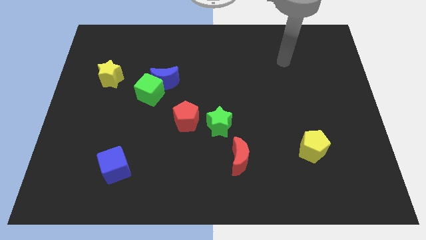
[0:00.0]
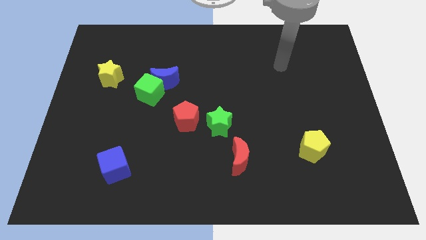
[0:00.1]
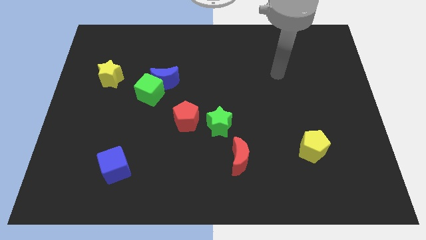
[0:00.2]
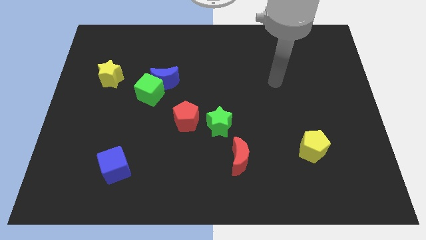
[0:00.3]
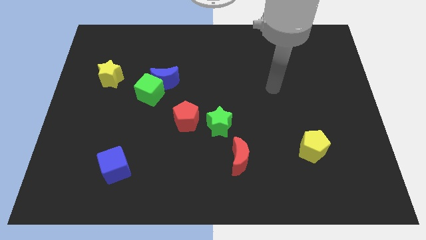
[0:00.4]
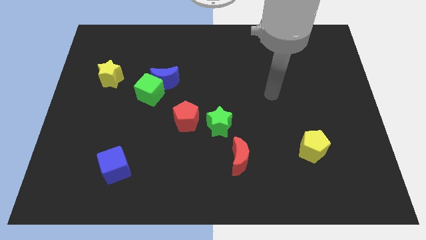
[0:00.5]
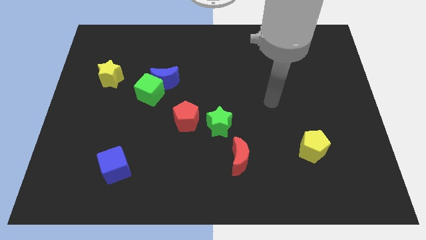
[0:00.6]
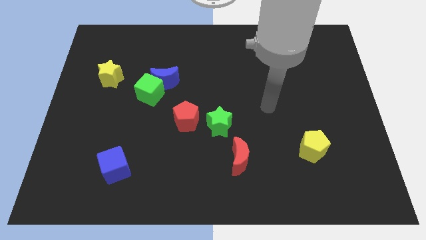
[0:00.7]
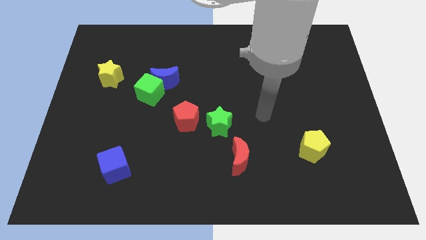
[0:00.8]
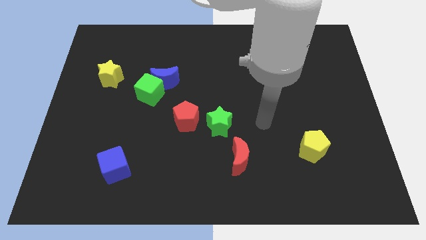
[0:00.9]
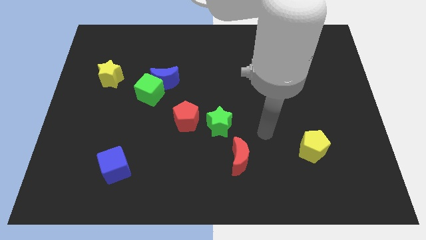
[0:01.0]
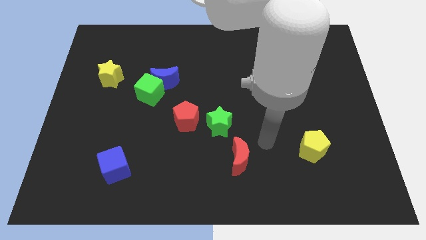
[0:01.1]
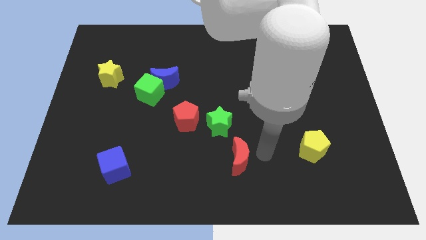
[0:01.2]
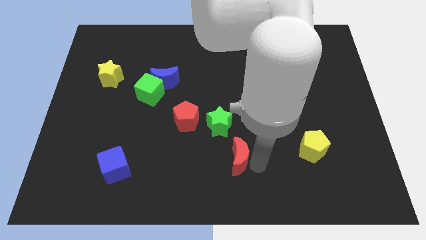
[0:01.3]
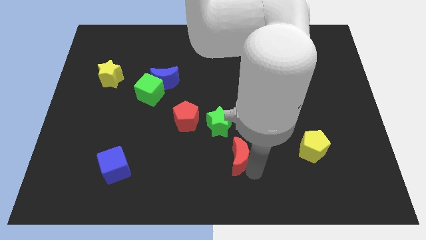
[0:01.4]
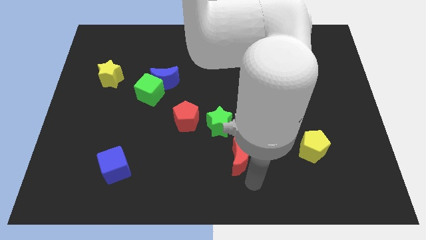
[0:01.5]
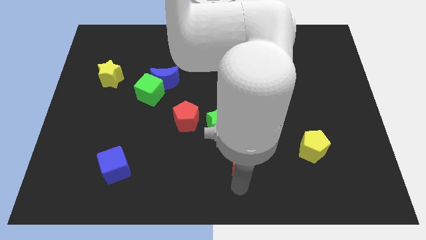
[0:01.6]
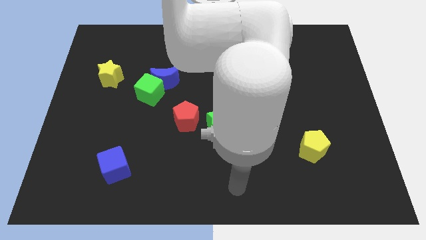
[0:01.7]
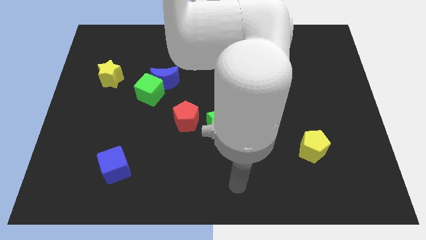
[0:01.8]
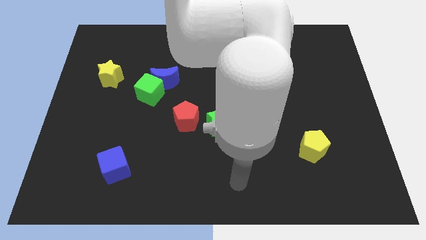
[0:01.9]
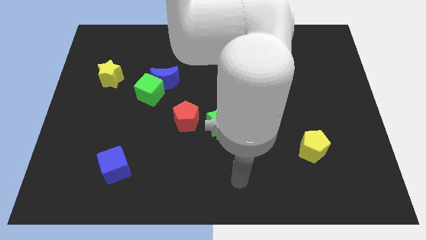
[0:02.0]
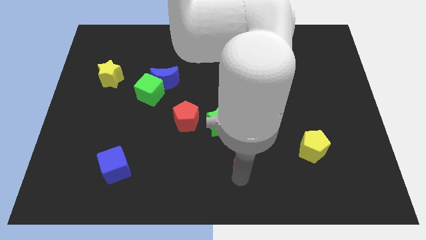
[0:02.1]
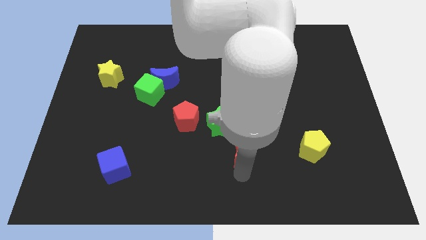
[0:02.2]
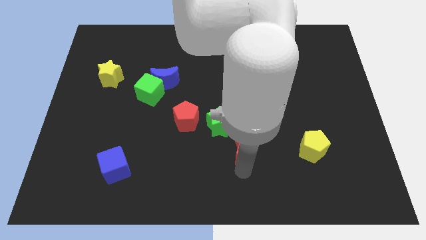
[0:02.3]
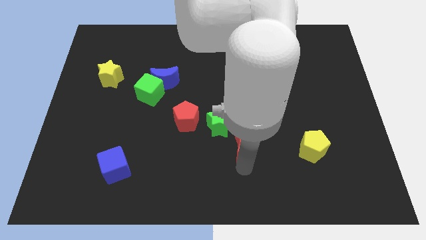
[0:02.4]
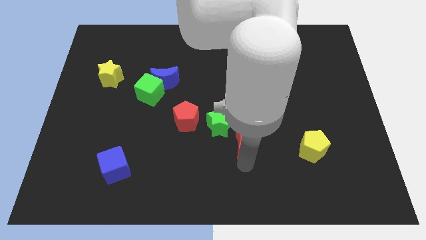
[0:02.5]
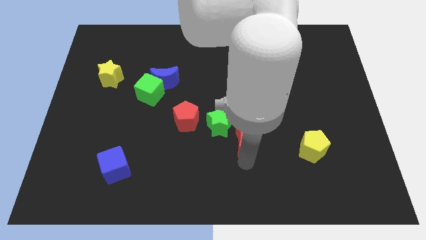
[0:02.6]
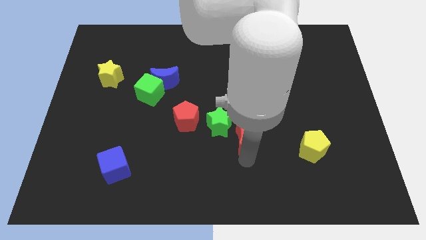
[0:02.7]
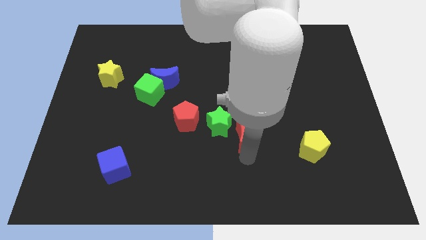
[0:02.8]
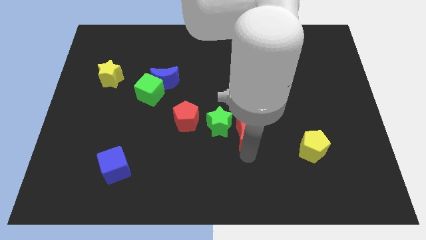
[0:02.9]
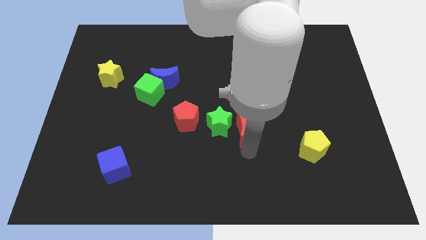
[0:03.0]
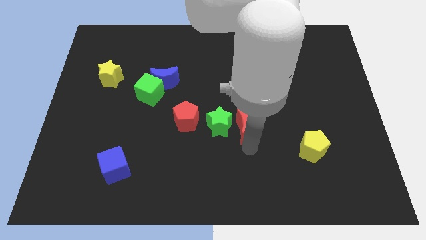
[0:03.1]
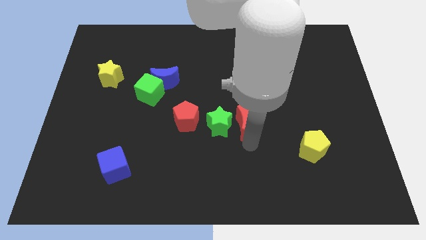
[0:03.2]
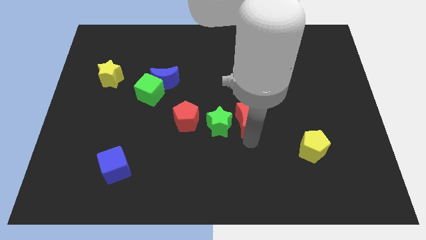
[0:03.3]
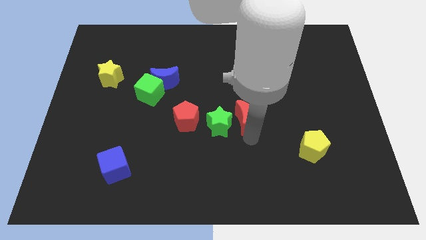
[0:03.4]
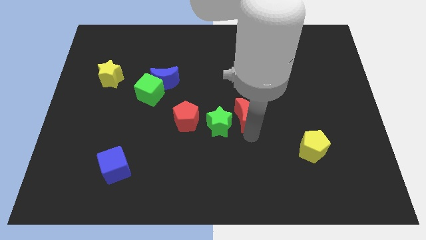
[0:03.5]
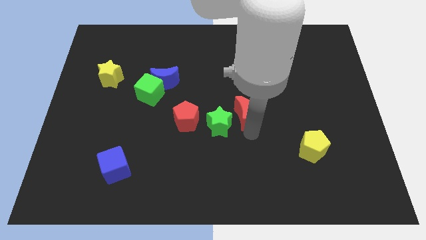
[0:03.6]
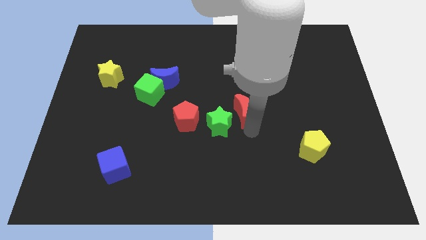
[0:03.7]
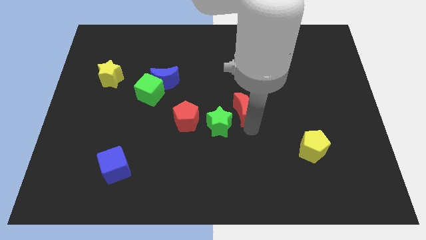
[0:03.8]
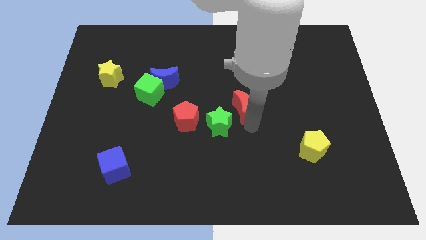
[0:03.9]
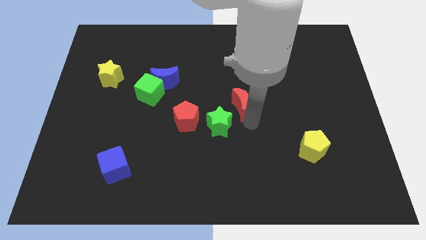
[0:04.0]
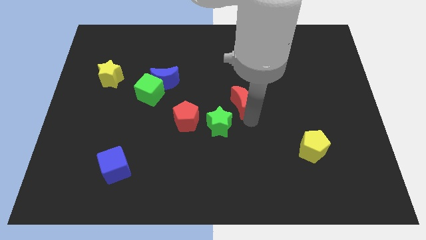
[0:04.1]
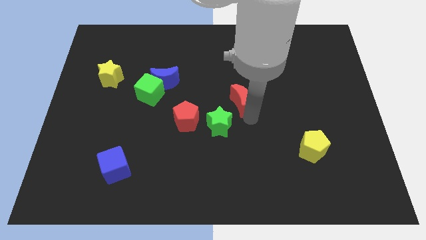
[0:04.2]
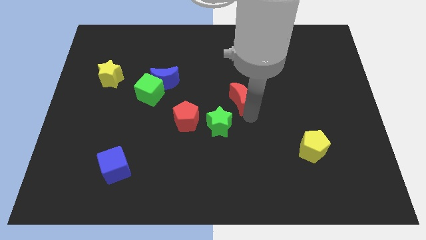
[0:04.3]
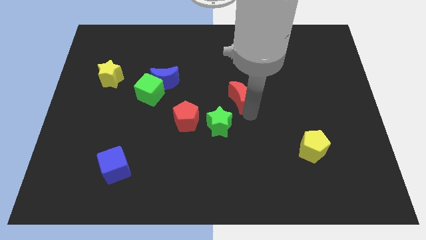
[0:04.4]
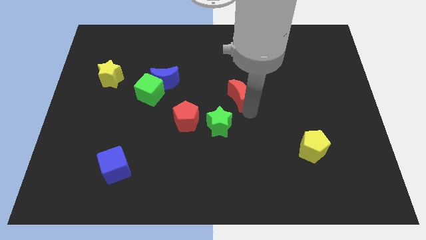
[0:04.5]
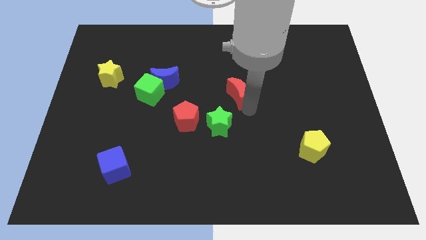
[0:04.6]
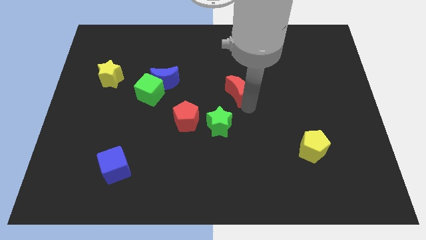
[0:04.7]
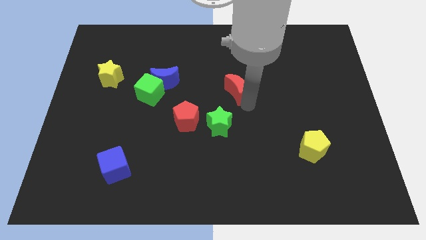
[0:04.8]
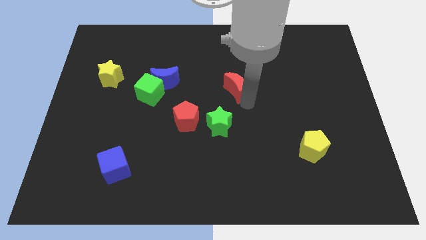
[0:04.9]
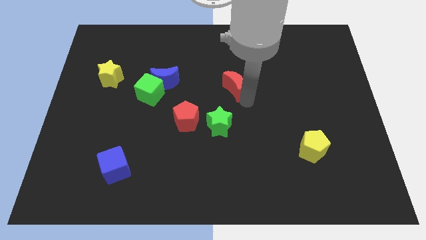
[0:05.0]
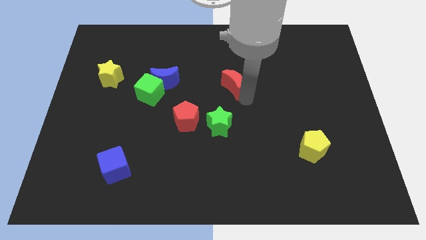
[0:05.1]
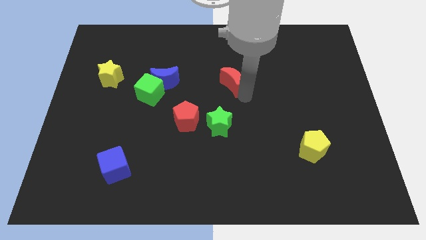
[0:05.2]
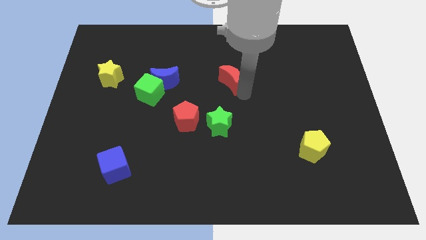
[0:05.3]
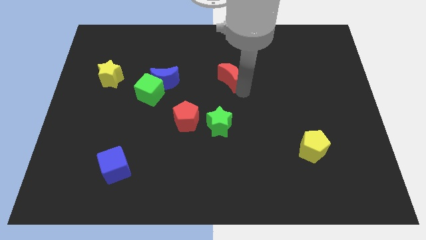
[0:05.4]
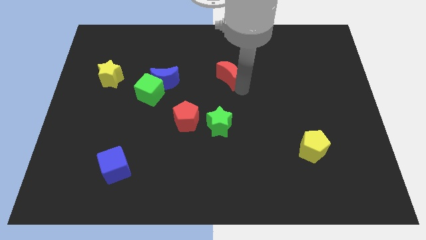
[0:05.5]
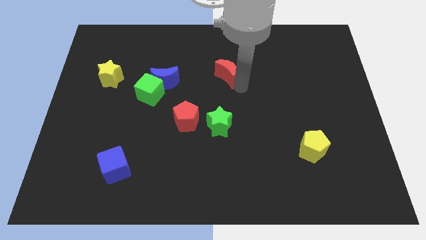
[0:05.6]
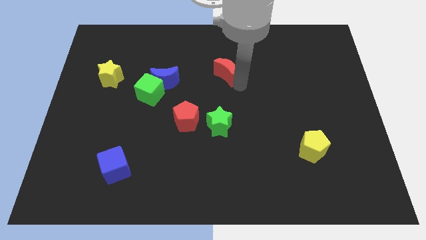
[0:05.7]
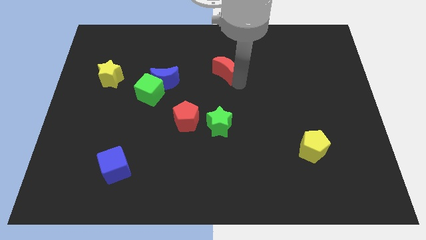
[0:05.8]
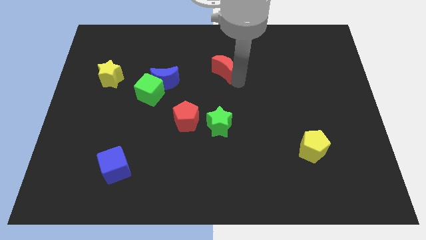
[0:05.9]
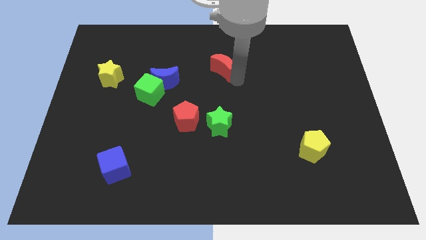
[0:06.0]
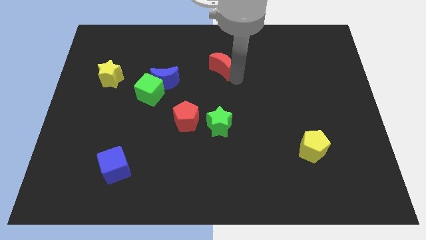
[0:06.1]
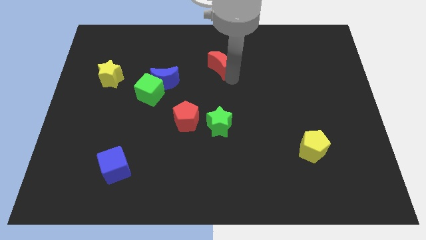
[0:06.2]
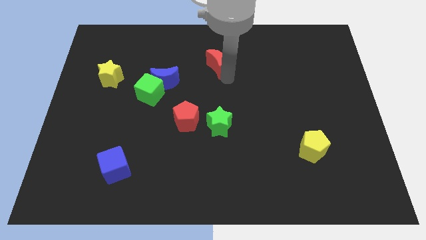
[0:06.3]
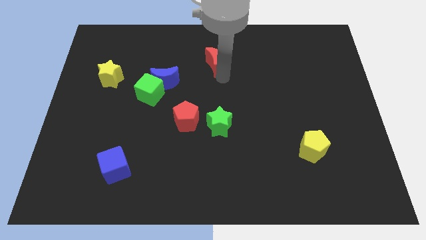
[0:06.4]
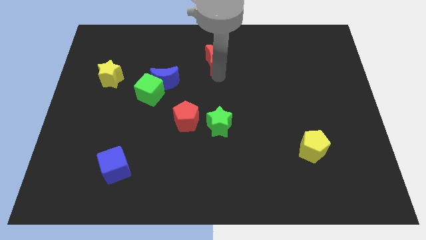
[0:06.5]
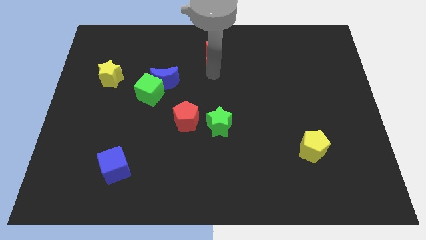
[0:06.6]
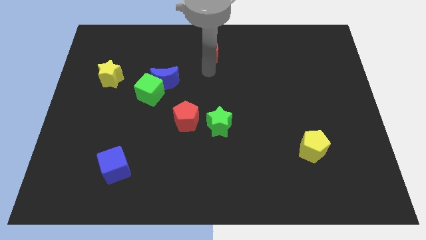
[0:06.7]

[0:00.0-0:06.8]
move the red moon to the towards your base
